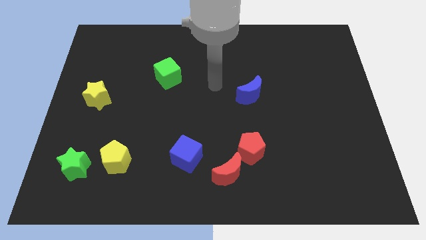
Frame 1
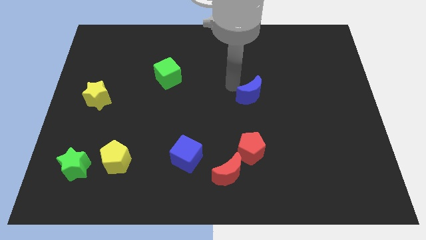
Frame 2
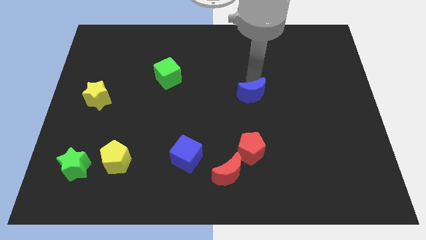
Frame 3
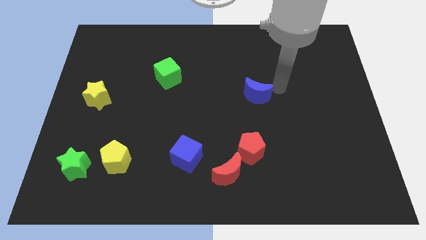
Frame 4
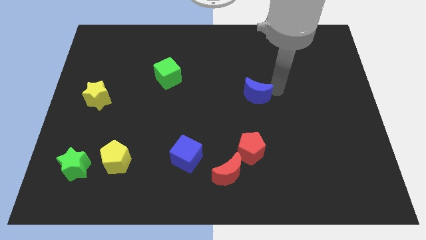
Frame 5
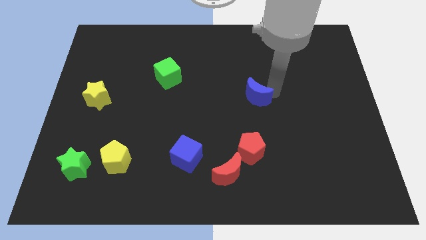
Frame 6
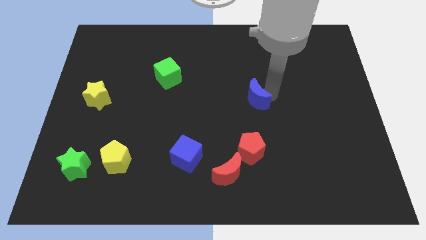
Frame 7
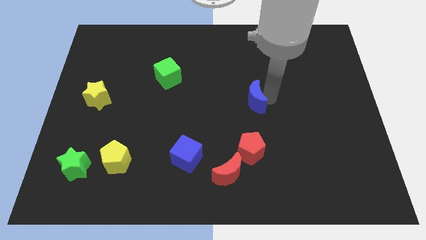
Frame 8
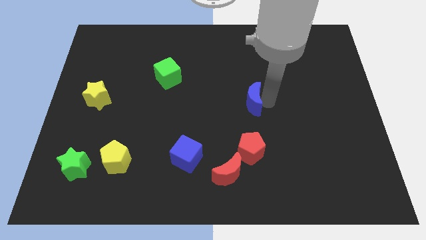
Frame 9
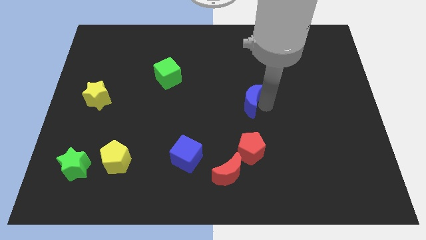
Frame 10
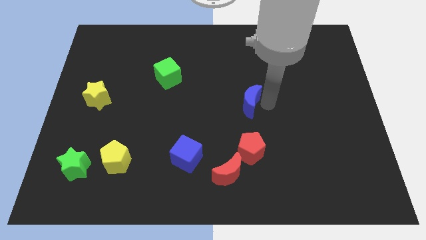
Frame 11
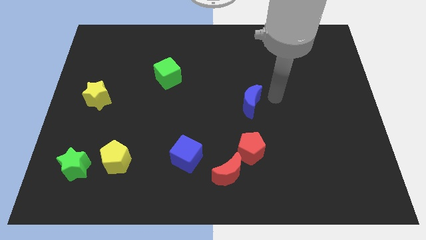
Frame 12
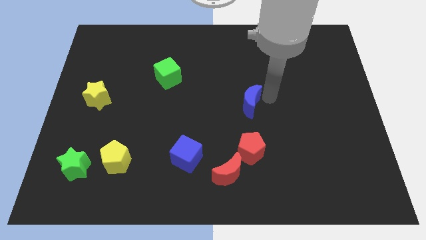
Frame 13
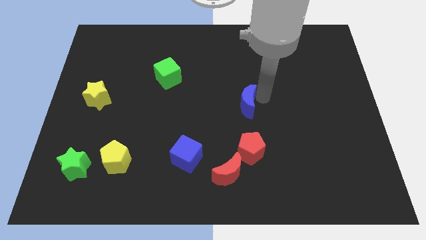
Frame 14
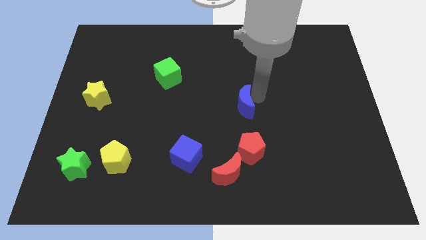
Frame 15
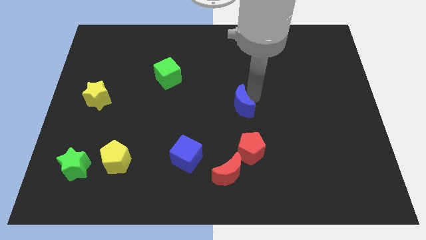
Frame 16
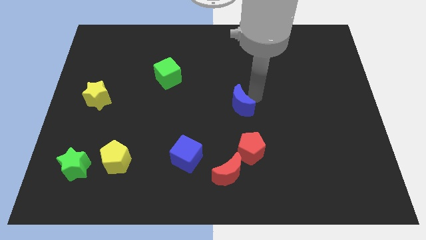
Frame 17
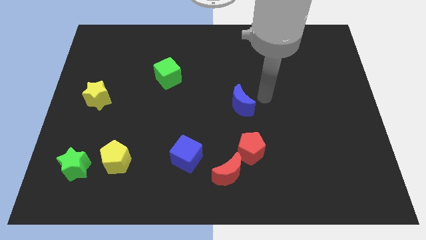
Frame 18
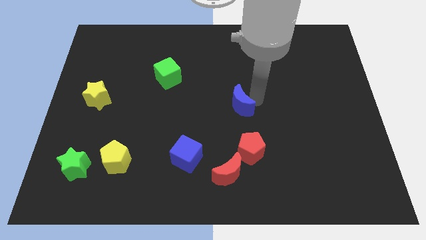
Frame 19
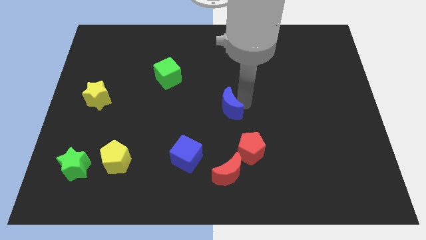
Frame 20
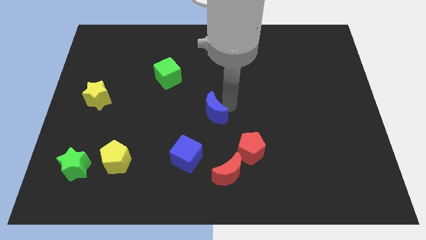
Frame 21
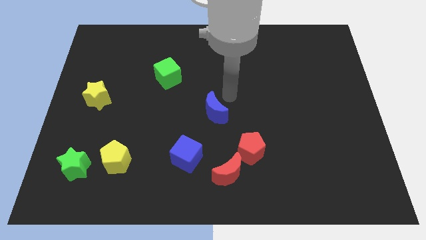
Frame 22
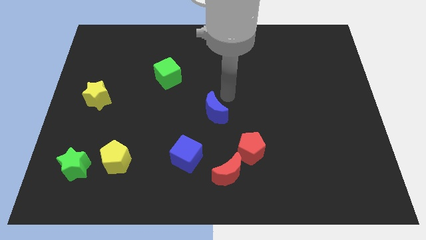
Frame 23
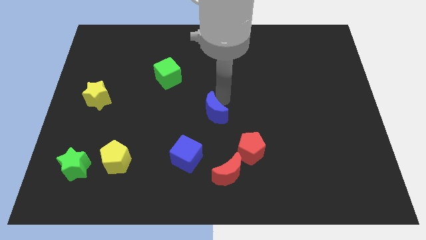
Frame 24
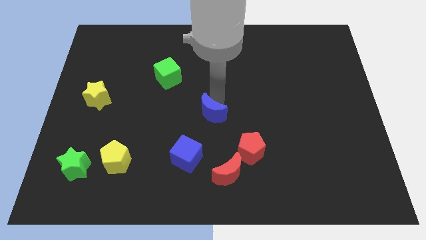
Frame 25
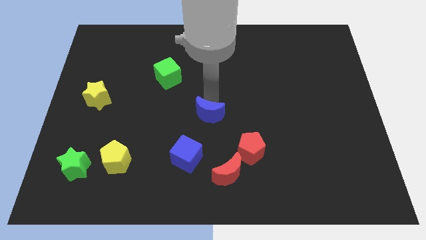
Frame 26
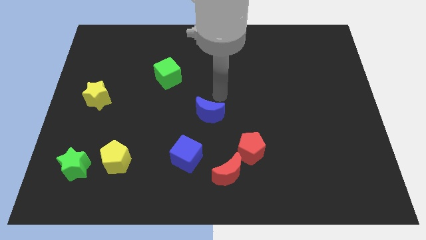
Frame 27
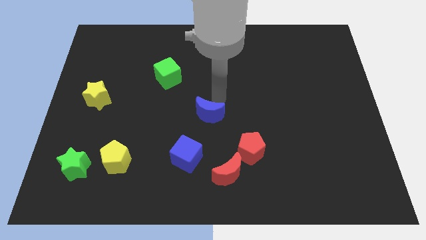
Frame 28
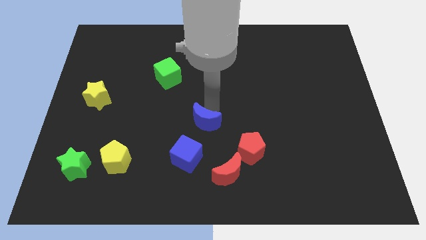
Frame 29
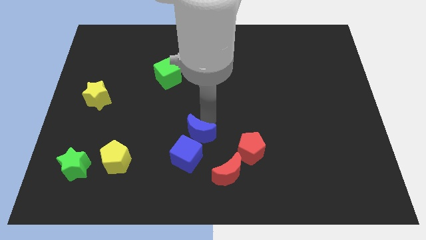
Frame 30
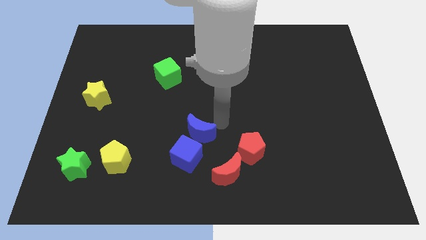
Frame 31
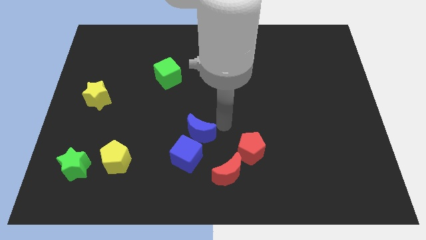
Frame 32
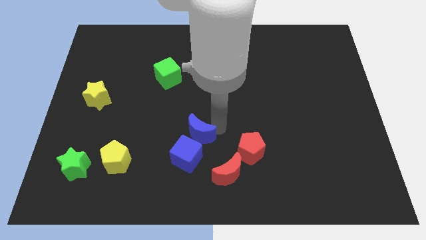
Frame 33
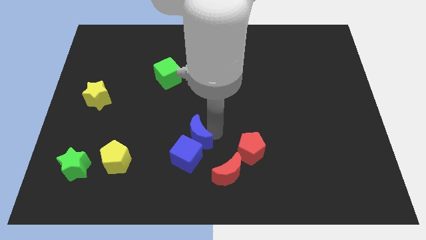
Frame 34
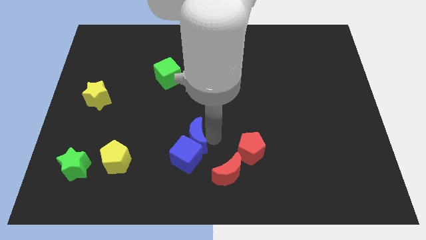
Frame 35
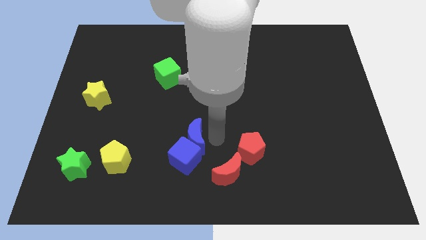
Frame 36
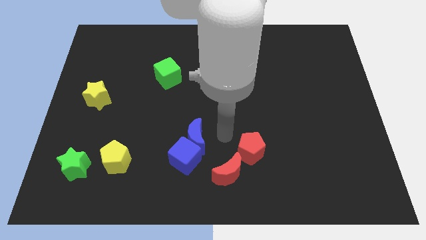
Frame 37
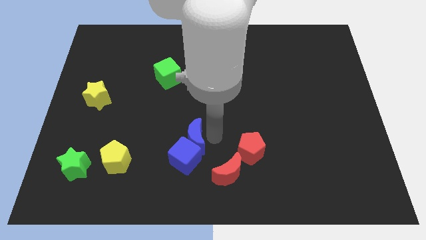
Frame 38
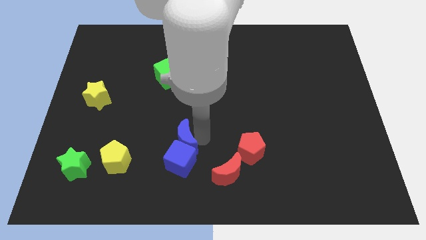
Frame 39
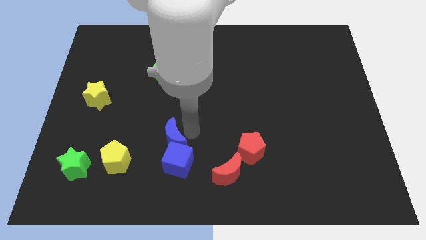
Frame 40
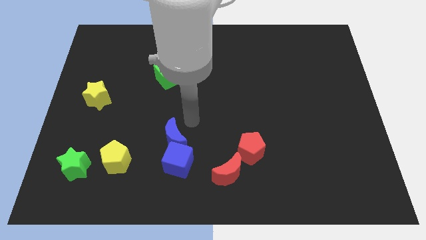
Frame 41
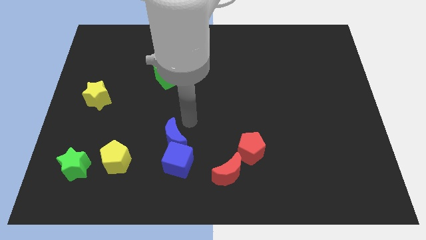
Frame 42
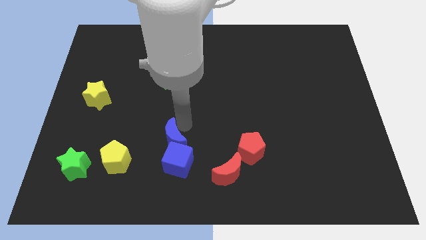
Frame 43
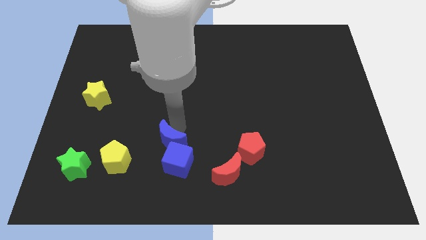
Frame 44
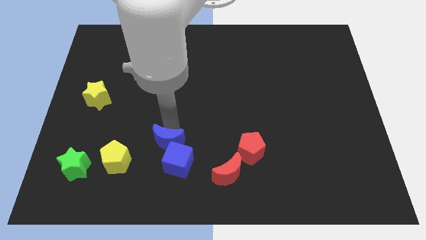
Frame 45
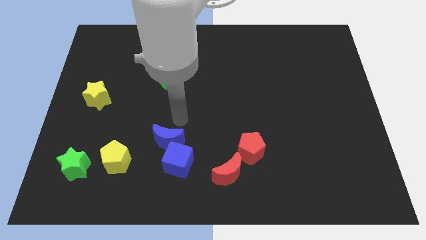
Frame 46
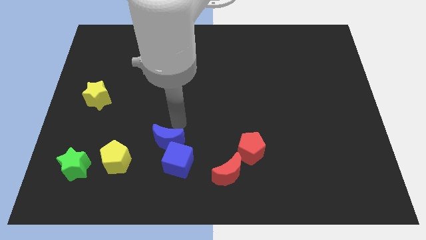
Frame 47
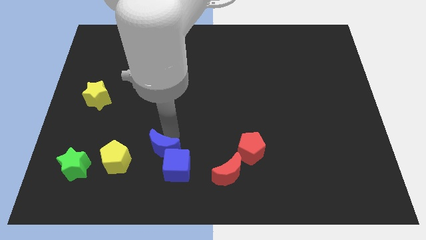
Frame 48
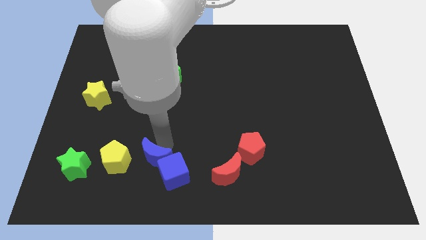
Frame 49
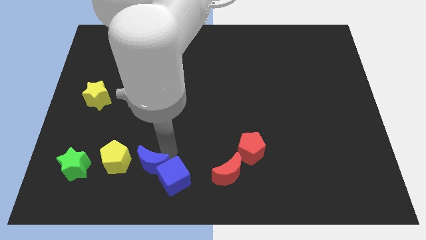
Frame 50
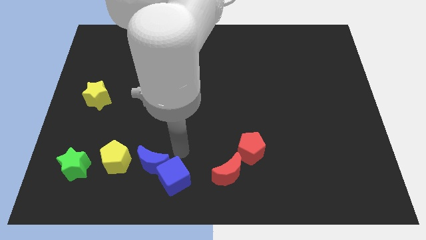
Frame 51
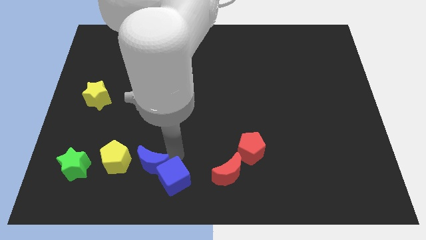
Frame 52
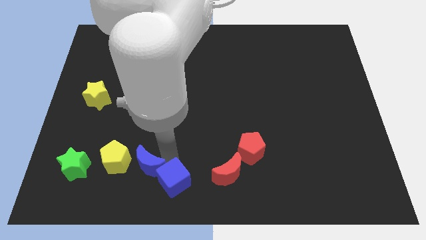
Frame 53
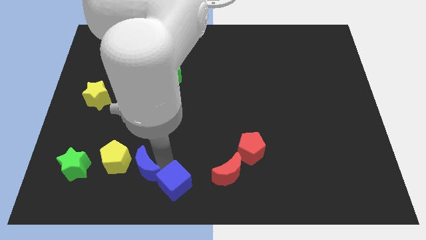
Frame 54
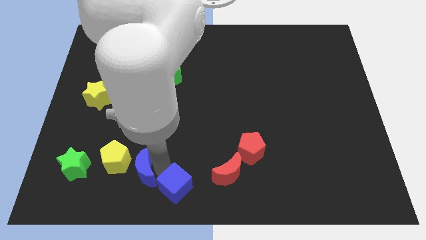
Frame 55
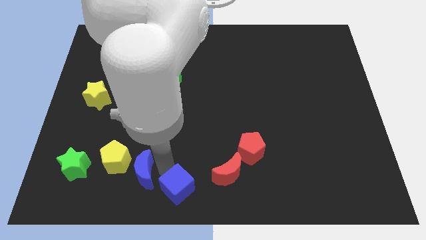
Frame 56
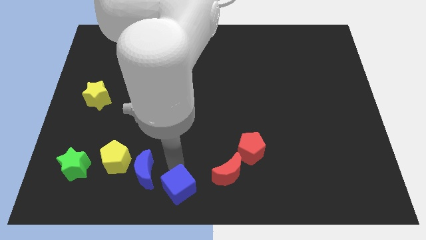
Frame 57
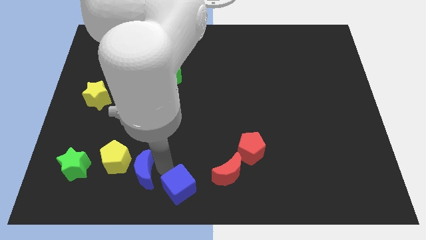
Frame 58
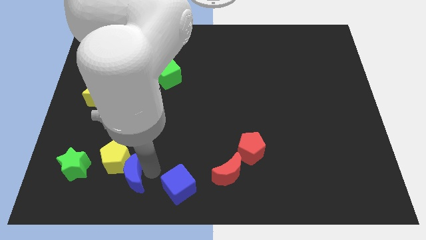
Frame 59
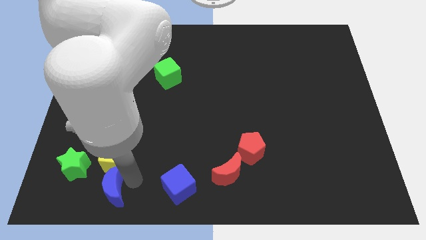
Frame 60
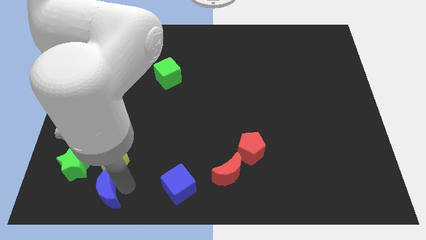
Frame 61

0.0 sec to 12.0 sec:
slide the blue moon diagonally down and to the left of the yellow pentagon

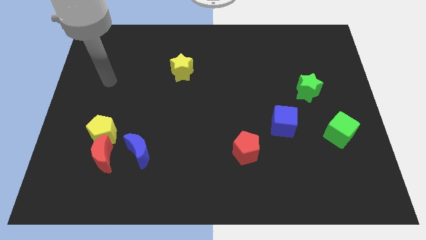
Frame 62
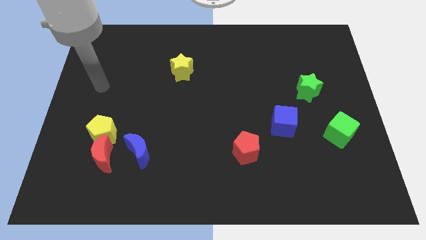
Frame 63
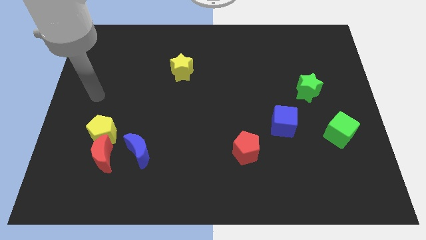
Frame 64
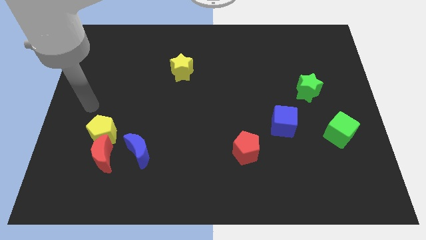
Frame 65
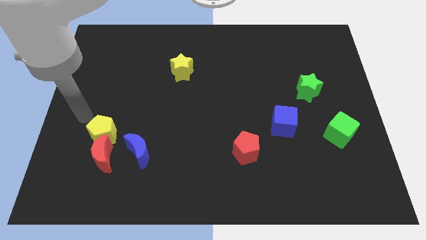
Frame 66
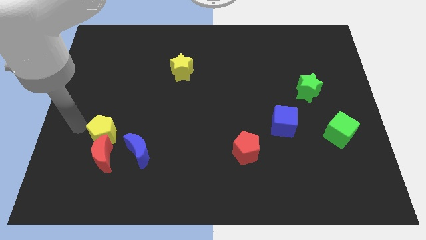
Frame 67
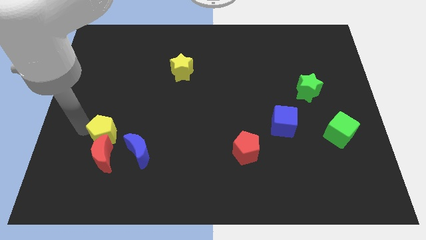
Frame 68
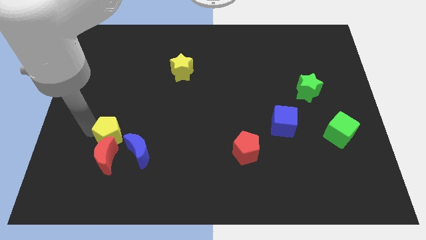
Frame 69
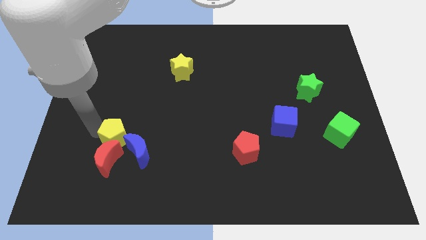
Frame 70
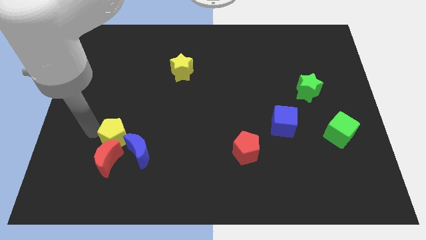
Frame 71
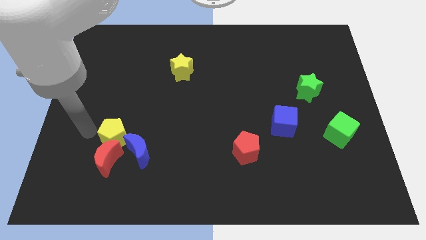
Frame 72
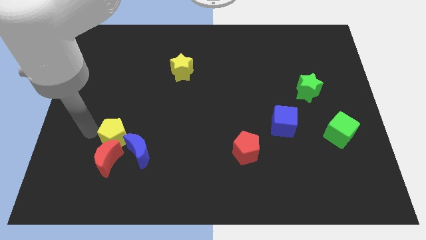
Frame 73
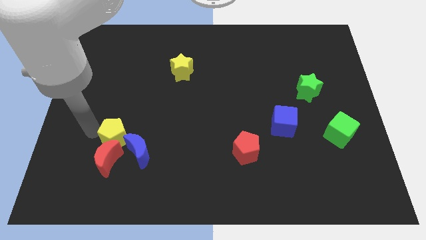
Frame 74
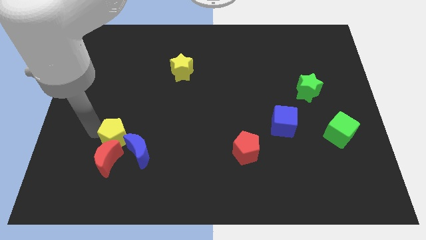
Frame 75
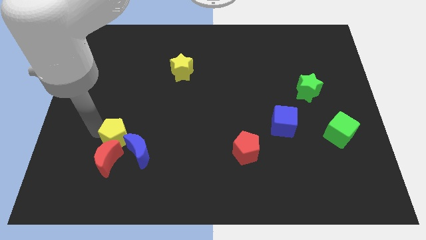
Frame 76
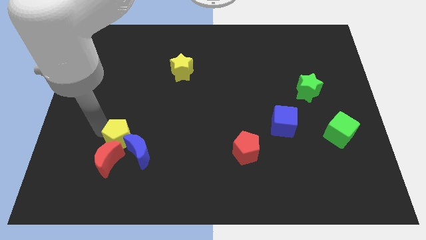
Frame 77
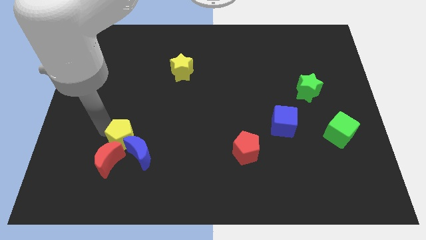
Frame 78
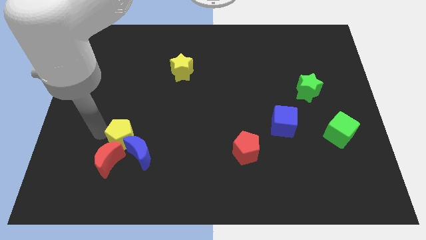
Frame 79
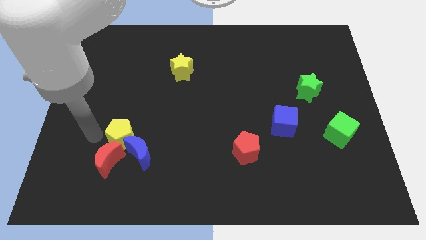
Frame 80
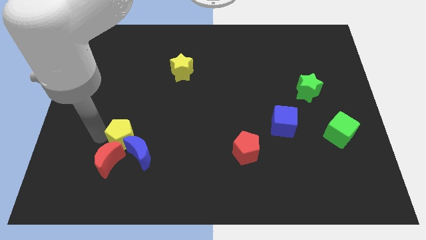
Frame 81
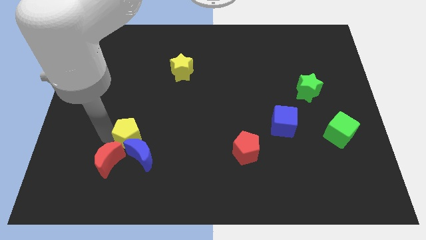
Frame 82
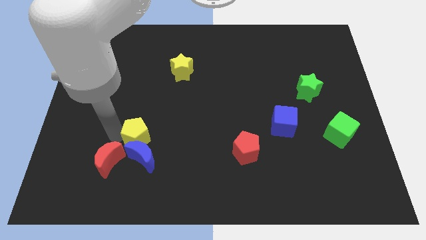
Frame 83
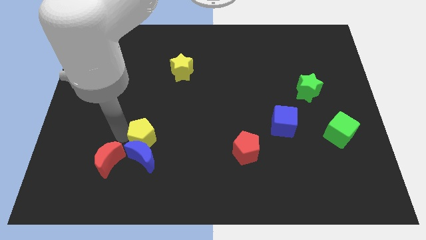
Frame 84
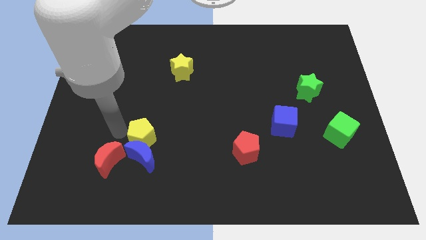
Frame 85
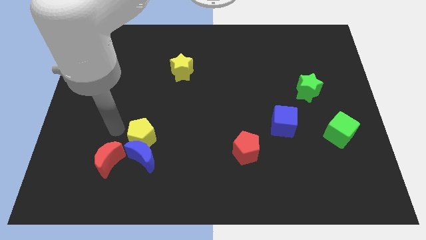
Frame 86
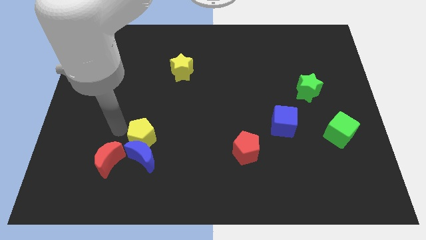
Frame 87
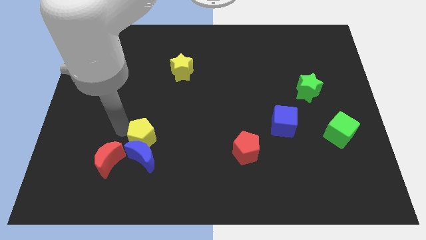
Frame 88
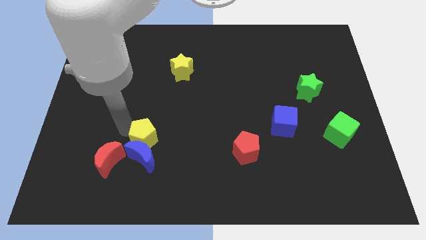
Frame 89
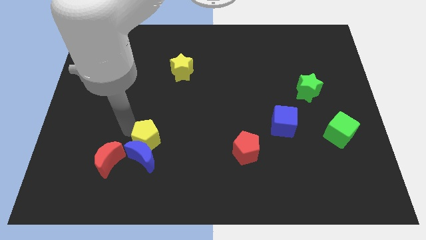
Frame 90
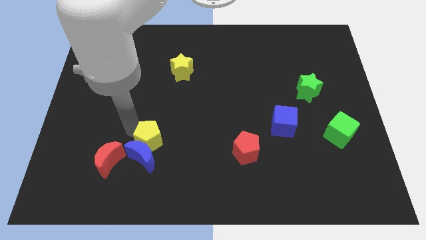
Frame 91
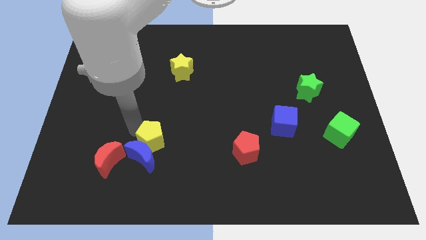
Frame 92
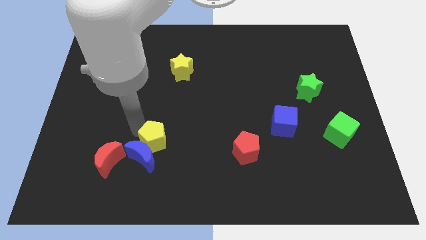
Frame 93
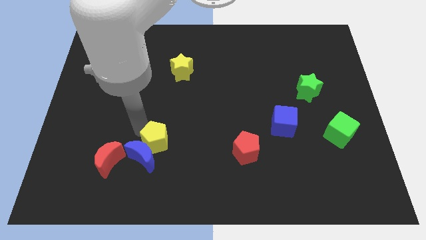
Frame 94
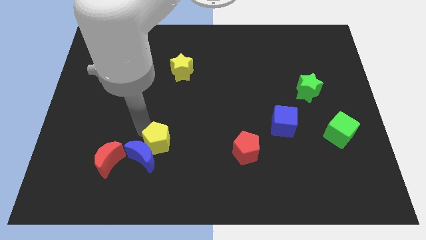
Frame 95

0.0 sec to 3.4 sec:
slide the yellow pentagon to the right side of the blue moon
